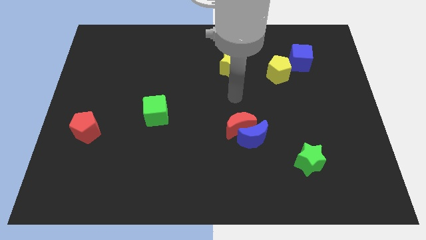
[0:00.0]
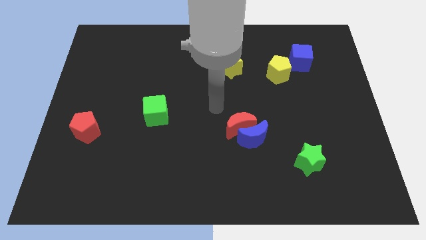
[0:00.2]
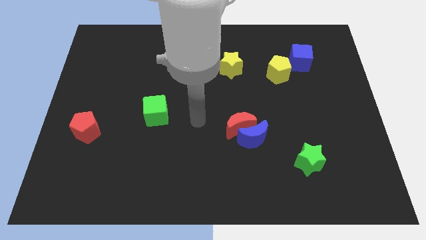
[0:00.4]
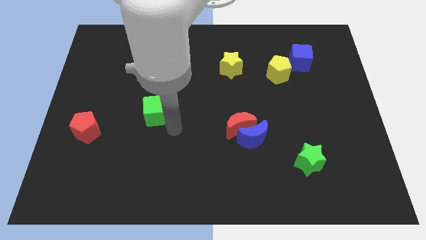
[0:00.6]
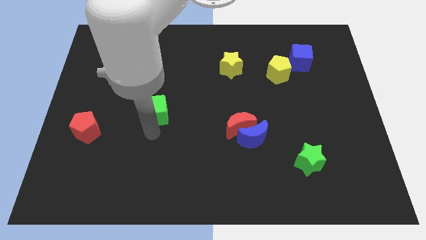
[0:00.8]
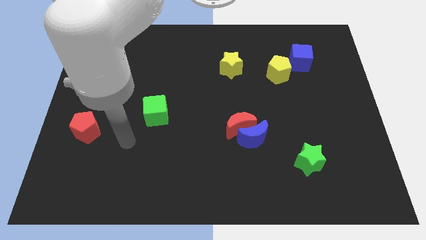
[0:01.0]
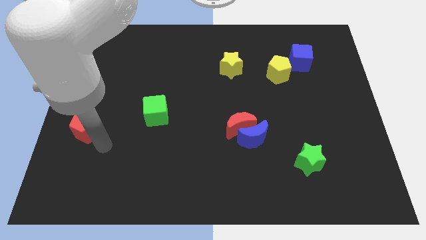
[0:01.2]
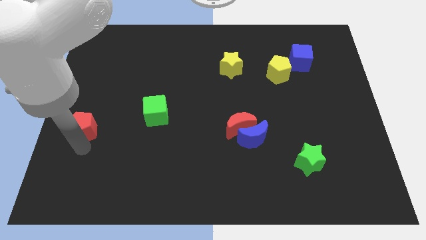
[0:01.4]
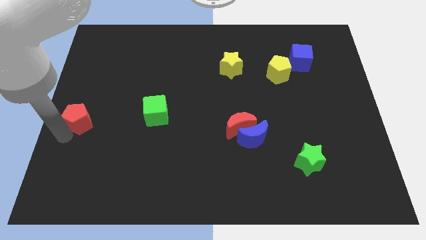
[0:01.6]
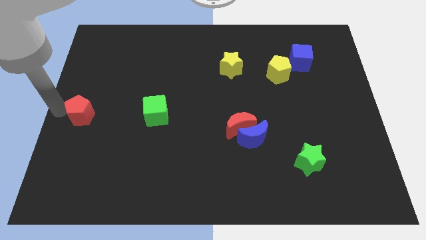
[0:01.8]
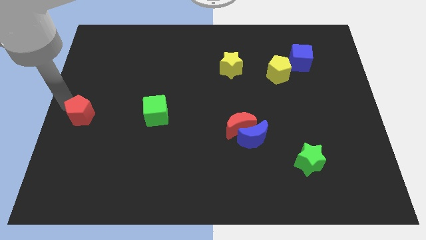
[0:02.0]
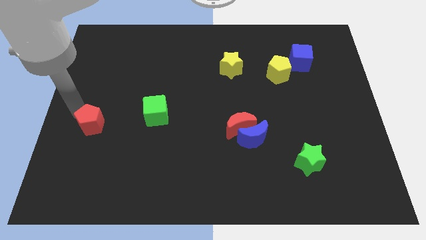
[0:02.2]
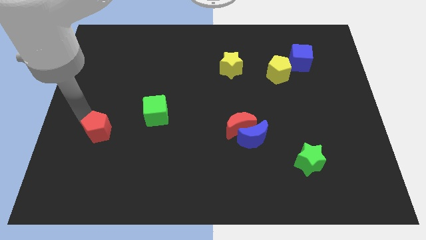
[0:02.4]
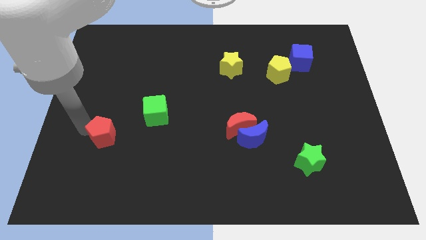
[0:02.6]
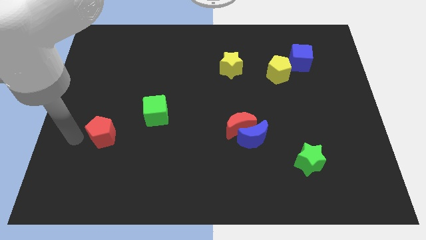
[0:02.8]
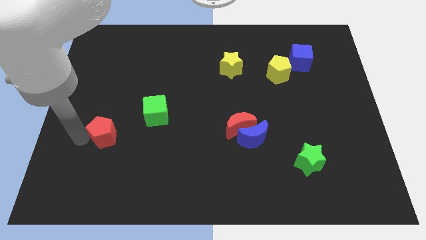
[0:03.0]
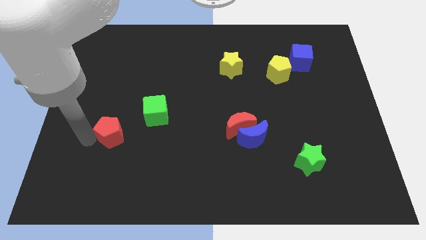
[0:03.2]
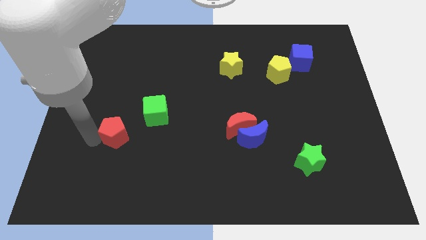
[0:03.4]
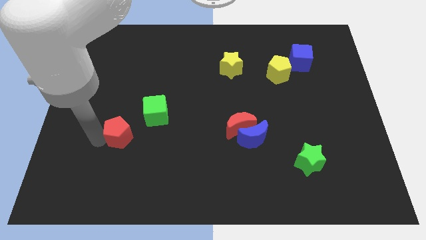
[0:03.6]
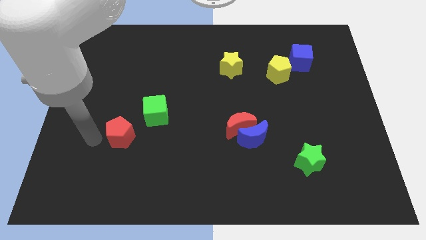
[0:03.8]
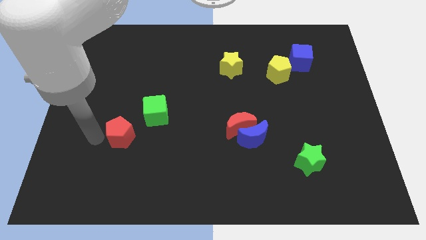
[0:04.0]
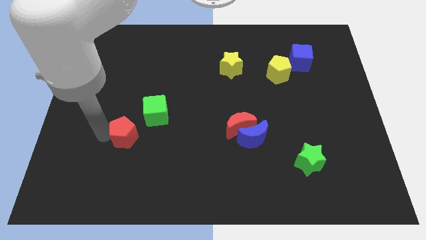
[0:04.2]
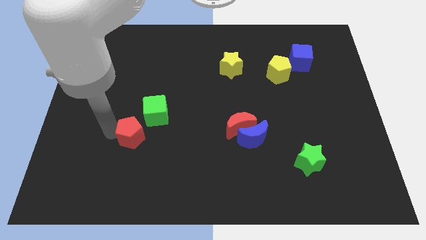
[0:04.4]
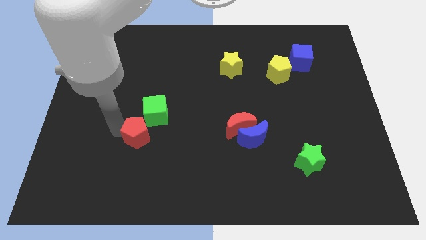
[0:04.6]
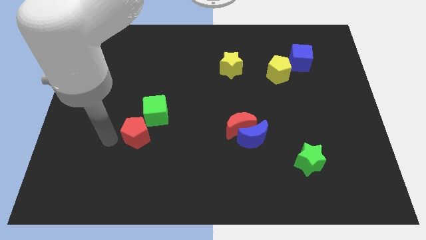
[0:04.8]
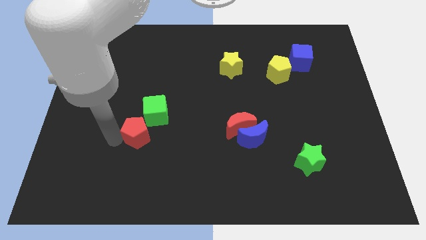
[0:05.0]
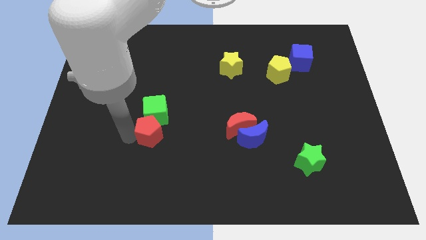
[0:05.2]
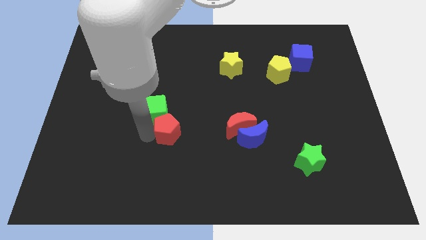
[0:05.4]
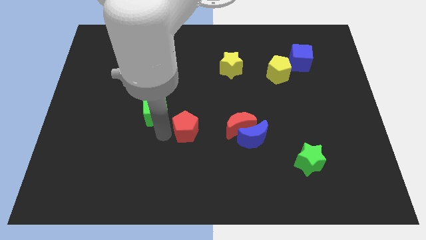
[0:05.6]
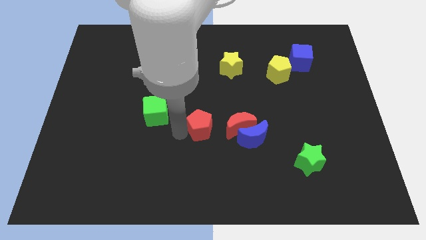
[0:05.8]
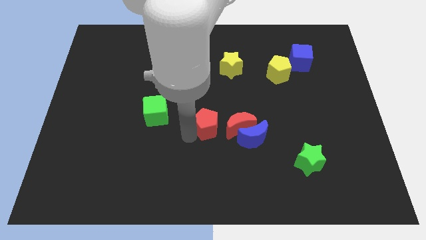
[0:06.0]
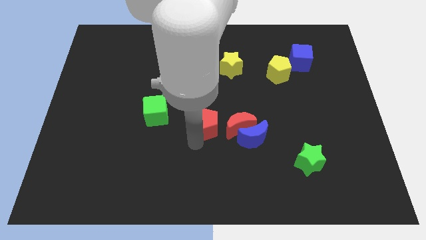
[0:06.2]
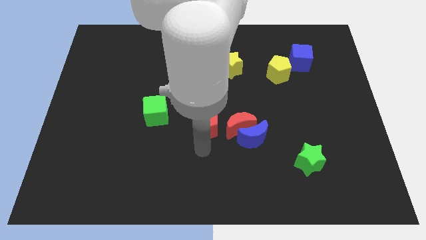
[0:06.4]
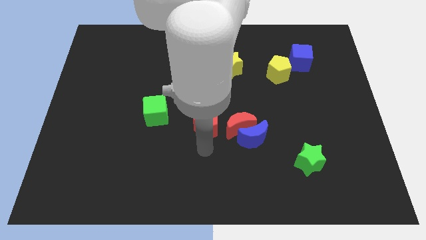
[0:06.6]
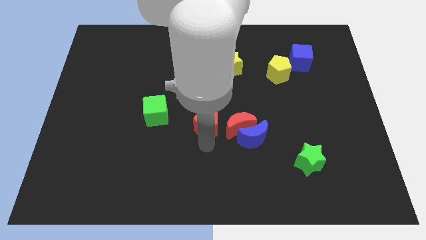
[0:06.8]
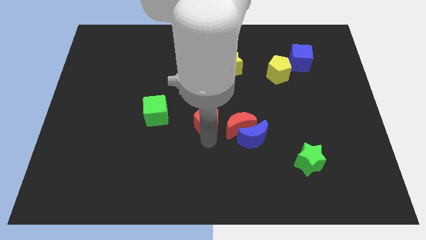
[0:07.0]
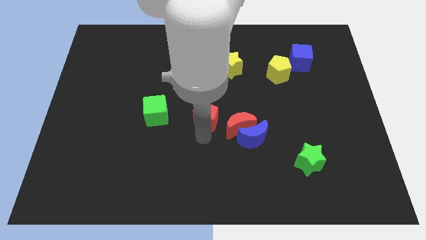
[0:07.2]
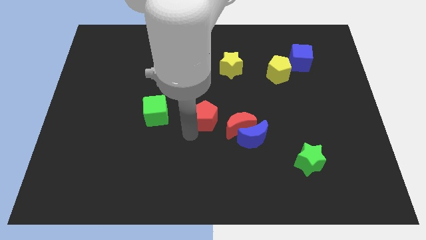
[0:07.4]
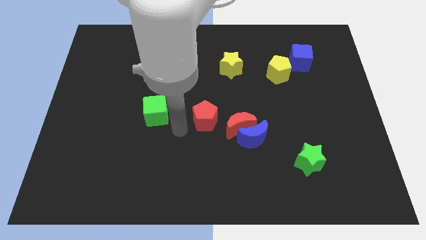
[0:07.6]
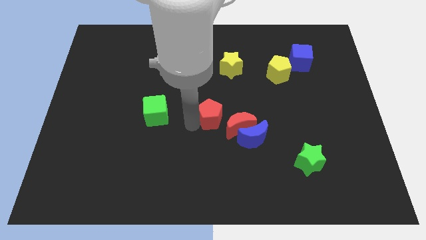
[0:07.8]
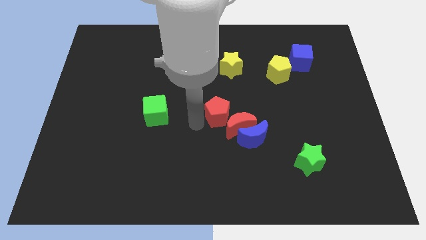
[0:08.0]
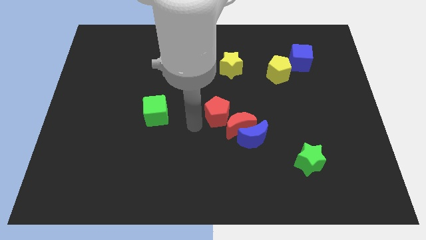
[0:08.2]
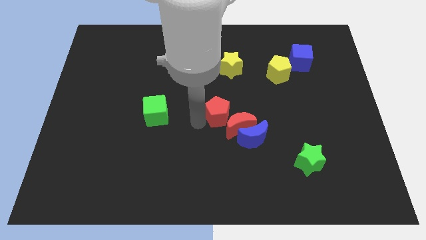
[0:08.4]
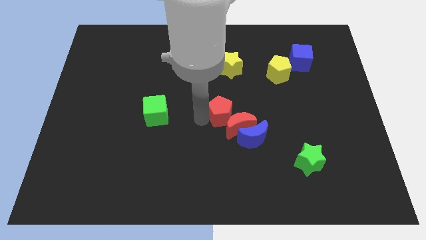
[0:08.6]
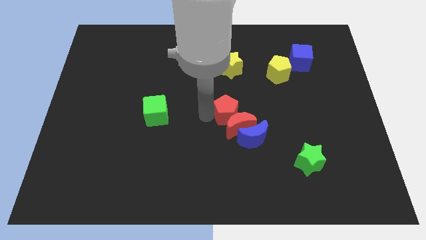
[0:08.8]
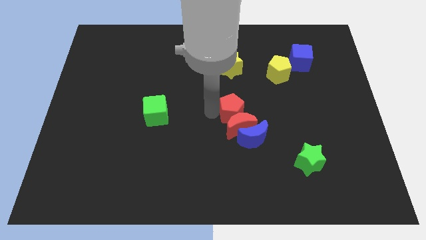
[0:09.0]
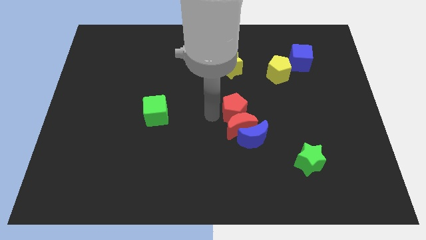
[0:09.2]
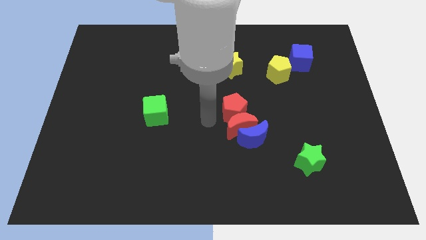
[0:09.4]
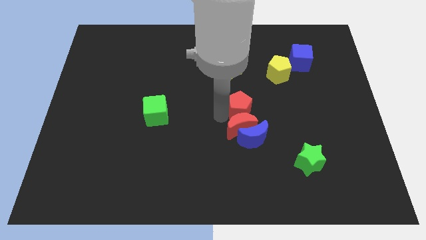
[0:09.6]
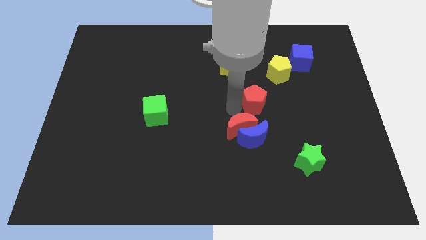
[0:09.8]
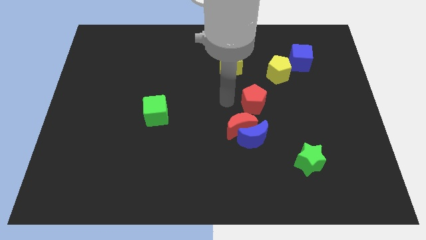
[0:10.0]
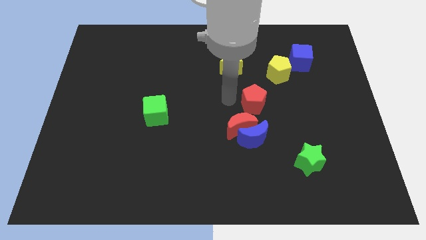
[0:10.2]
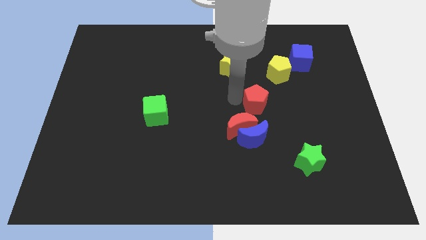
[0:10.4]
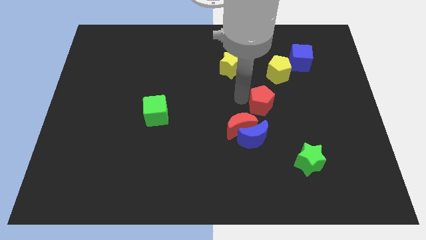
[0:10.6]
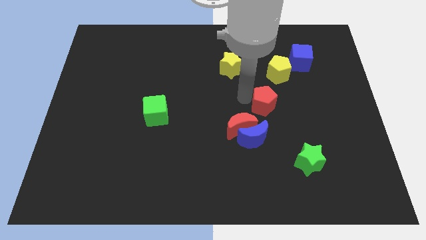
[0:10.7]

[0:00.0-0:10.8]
put the red pentagon to the bottom of the yellow pentagon

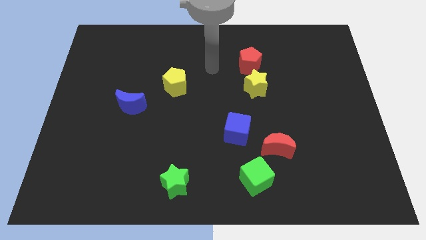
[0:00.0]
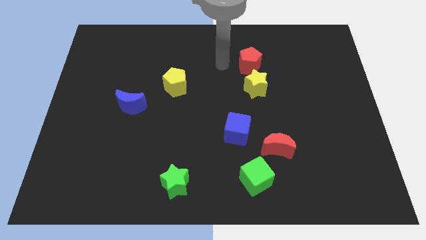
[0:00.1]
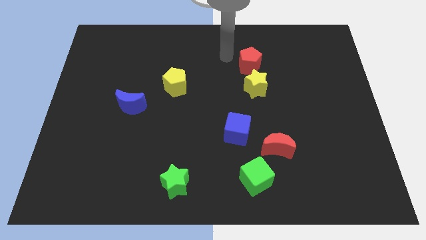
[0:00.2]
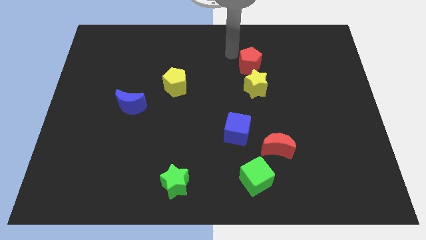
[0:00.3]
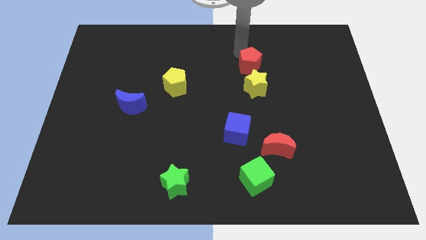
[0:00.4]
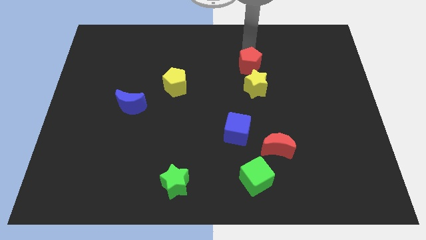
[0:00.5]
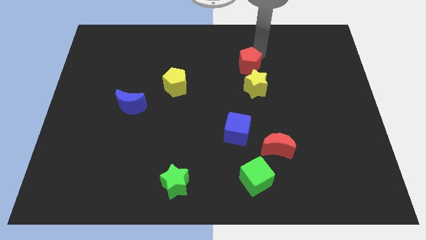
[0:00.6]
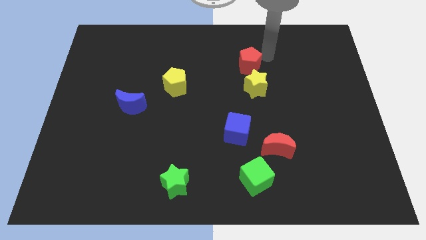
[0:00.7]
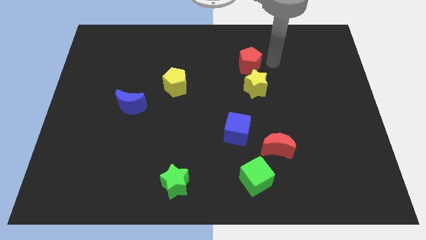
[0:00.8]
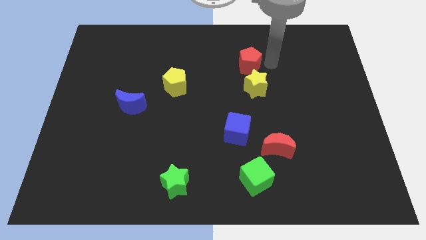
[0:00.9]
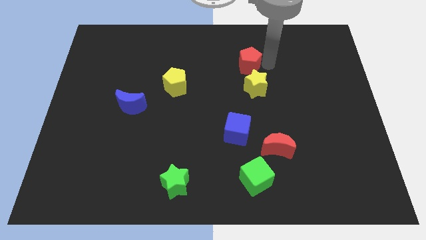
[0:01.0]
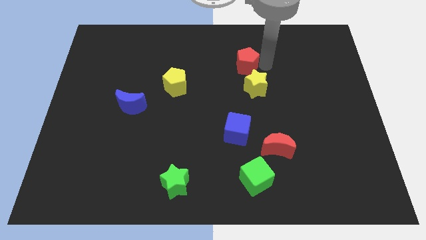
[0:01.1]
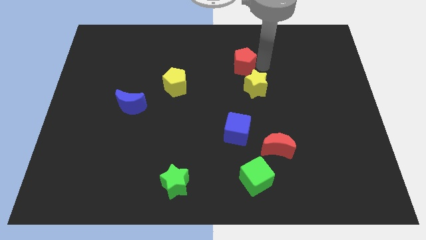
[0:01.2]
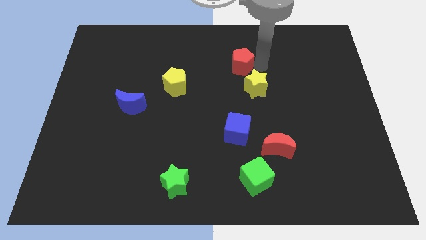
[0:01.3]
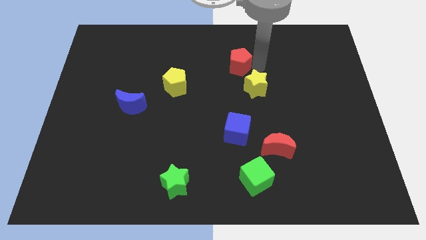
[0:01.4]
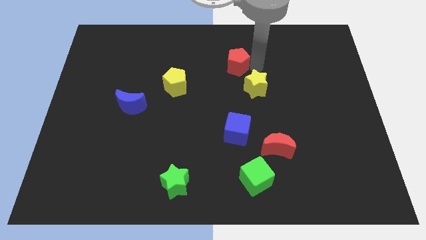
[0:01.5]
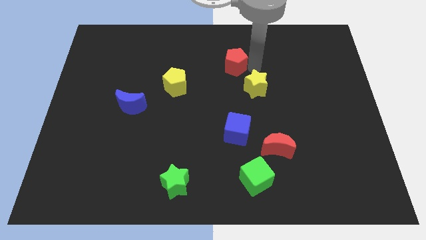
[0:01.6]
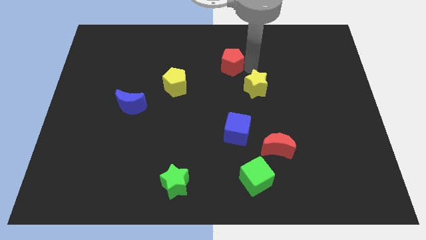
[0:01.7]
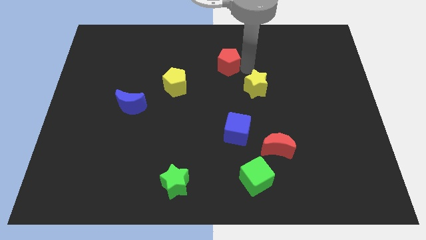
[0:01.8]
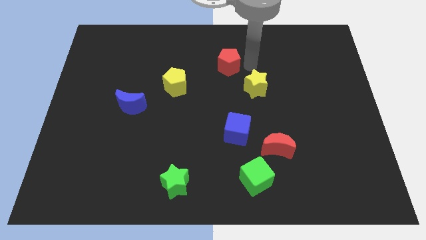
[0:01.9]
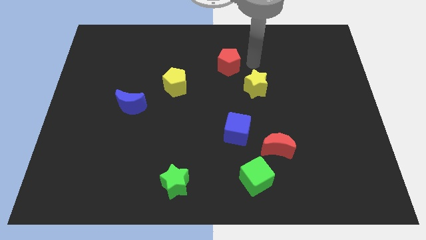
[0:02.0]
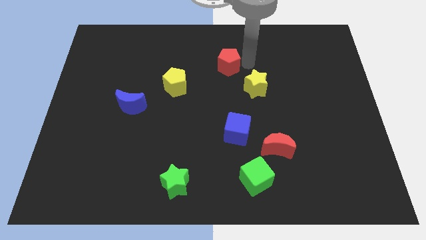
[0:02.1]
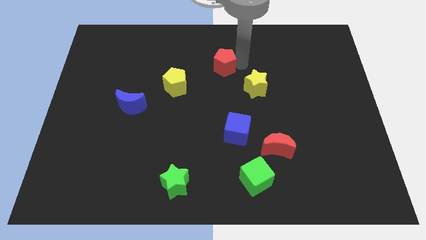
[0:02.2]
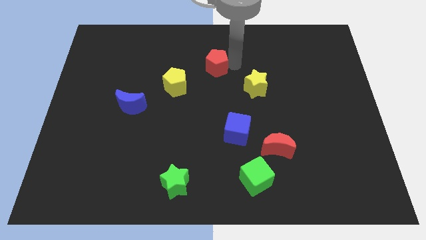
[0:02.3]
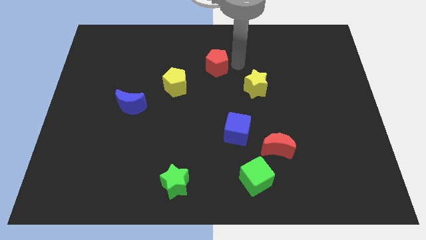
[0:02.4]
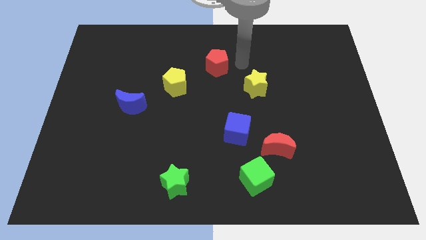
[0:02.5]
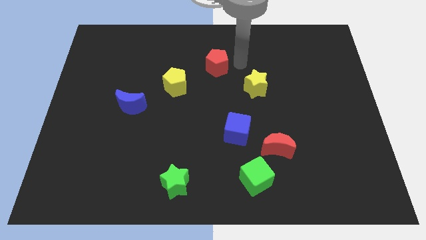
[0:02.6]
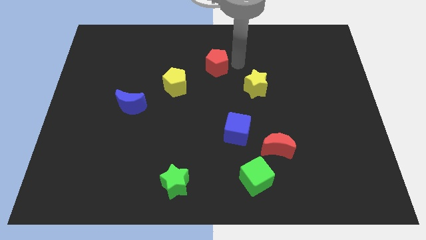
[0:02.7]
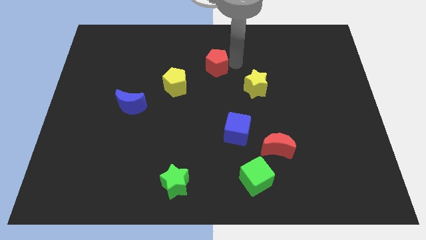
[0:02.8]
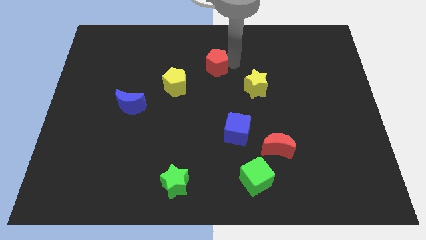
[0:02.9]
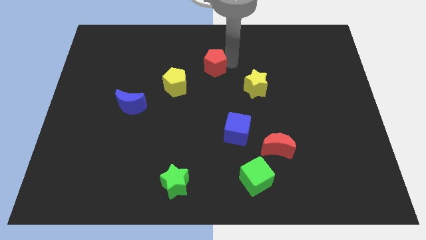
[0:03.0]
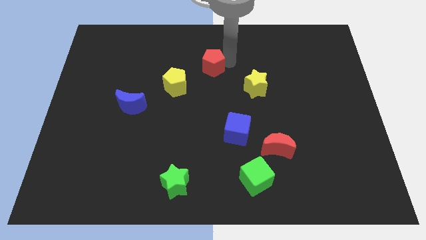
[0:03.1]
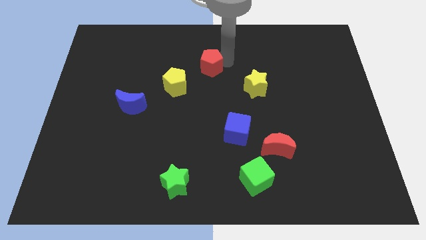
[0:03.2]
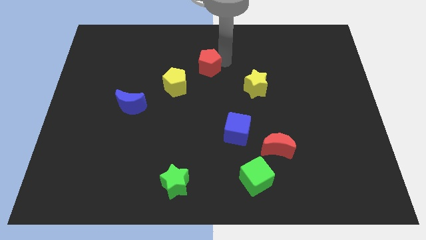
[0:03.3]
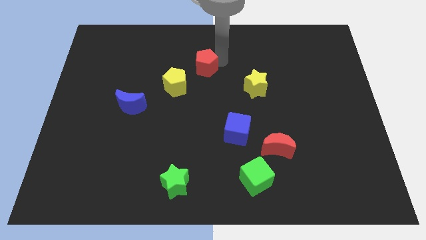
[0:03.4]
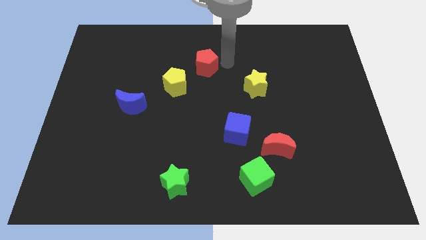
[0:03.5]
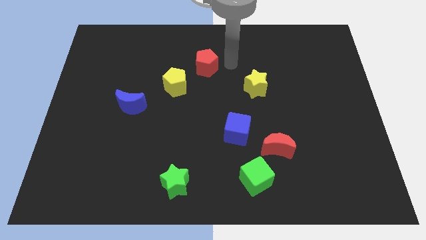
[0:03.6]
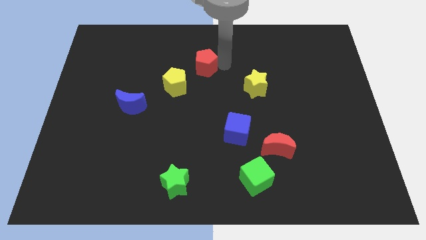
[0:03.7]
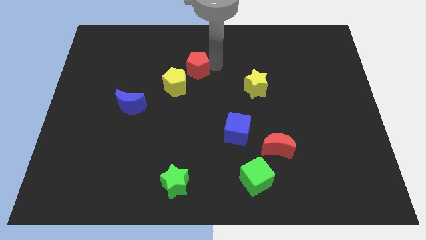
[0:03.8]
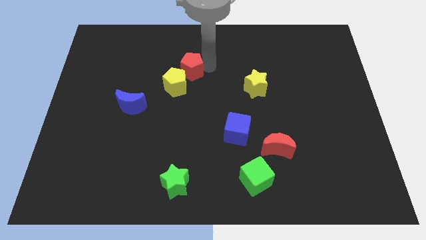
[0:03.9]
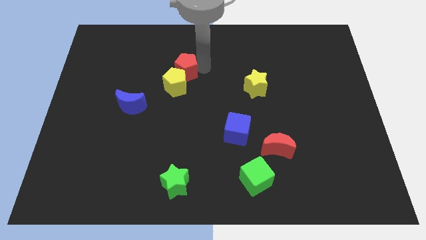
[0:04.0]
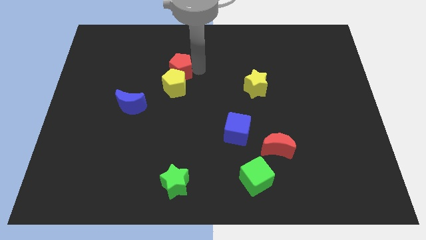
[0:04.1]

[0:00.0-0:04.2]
move the red pentagon to the top left side of the yellow pentagon
